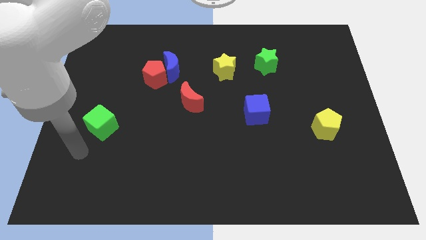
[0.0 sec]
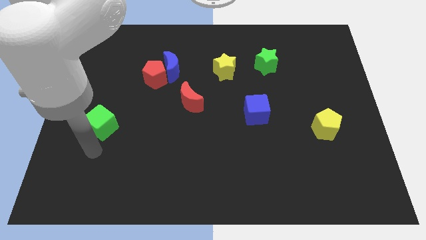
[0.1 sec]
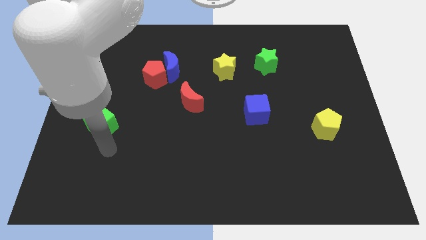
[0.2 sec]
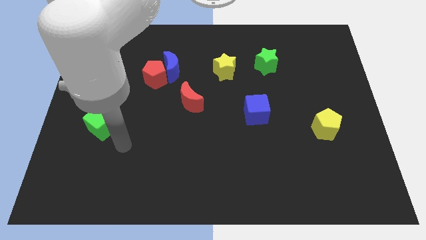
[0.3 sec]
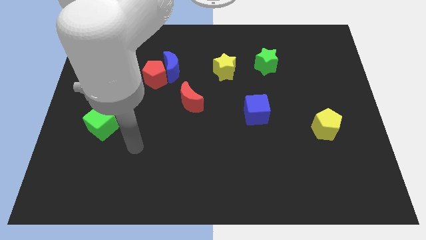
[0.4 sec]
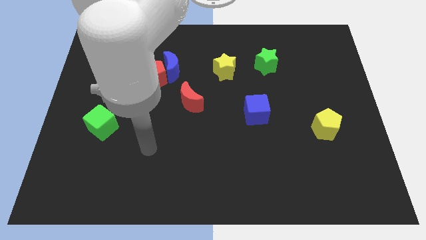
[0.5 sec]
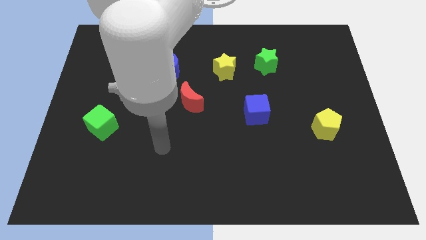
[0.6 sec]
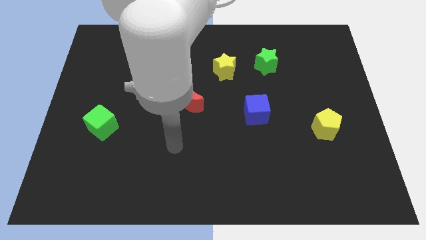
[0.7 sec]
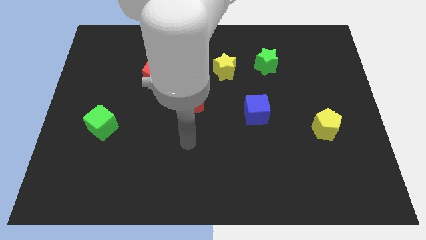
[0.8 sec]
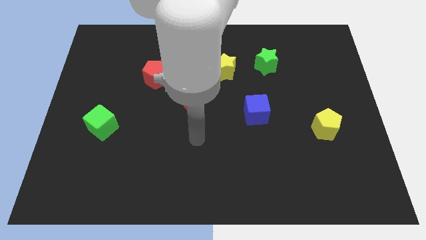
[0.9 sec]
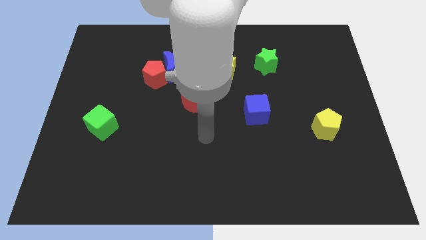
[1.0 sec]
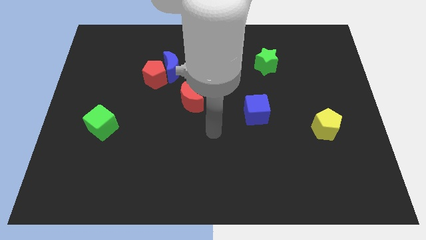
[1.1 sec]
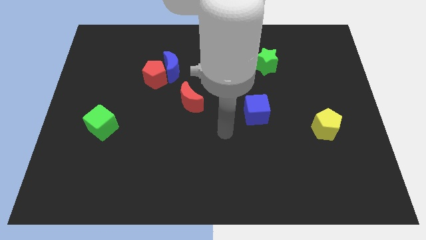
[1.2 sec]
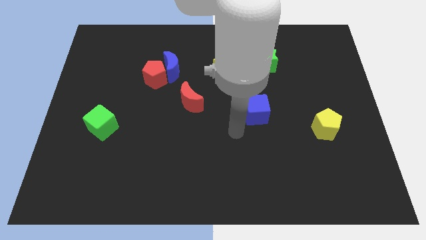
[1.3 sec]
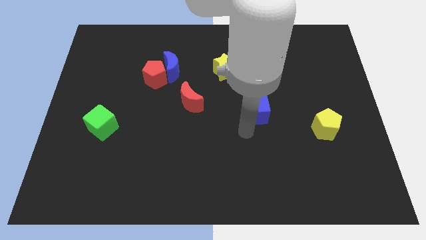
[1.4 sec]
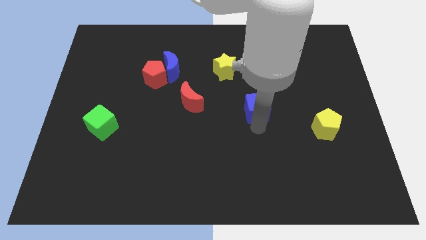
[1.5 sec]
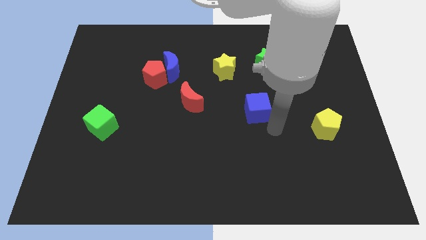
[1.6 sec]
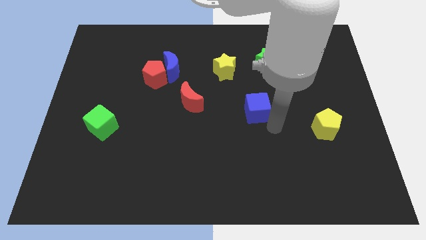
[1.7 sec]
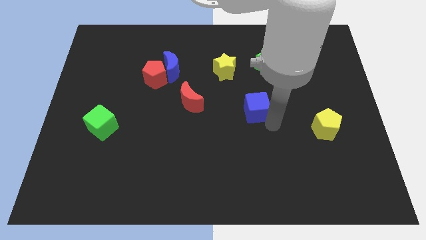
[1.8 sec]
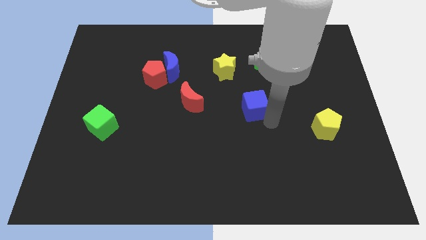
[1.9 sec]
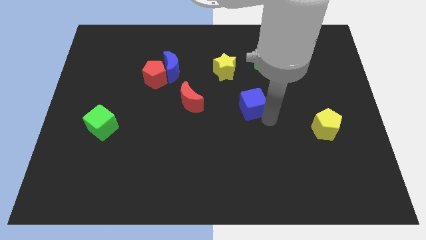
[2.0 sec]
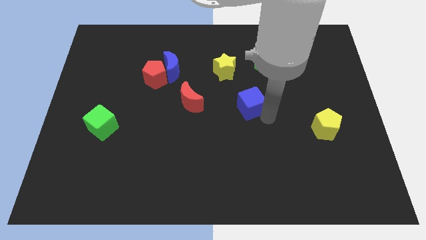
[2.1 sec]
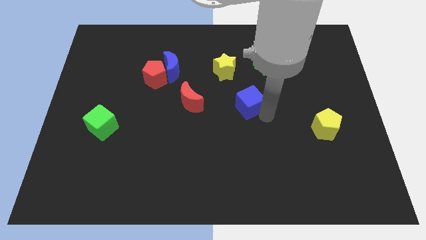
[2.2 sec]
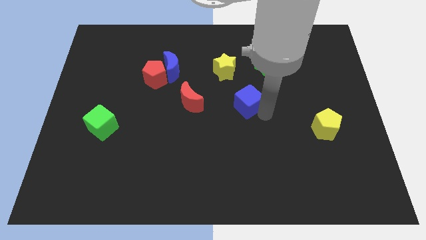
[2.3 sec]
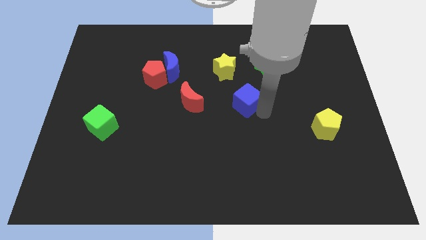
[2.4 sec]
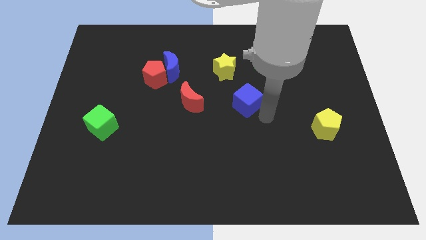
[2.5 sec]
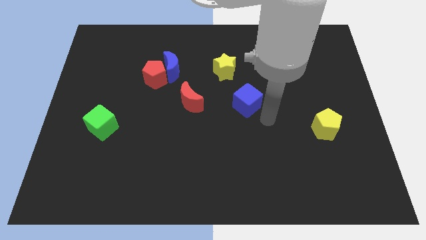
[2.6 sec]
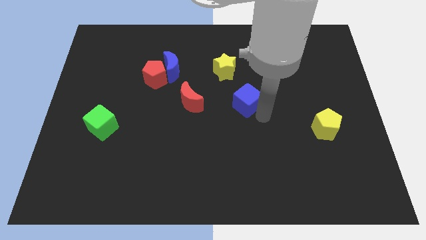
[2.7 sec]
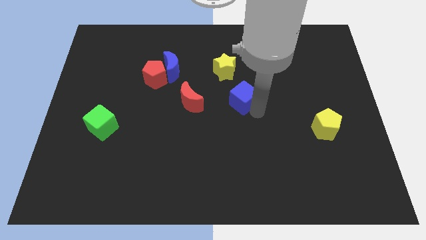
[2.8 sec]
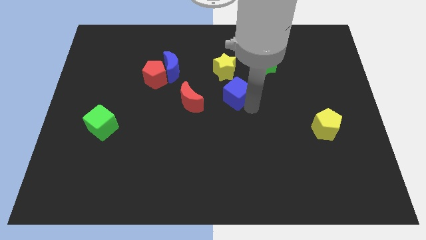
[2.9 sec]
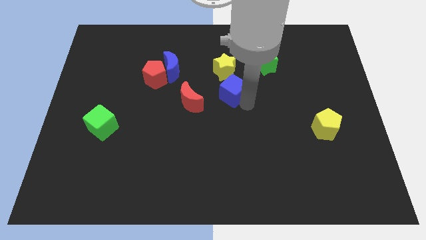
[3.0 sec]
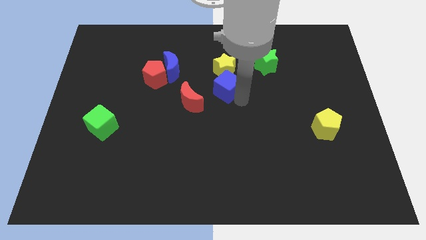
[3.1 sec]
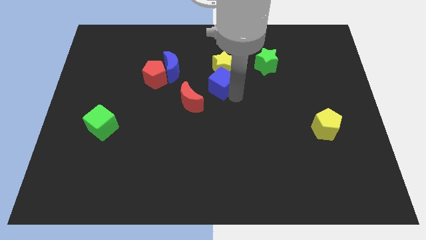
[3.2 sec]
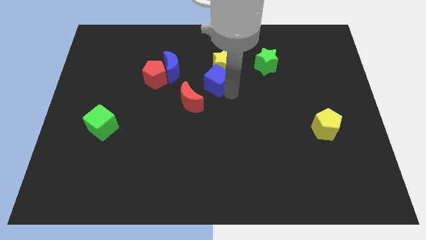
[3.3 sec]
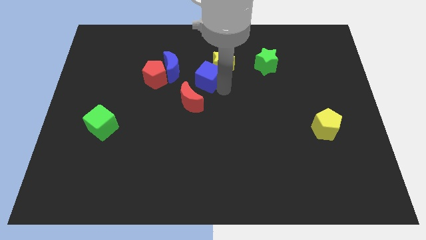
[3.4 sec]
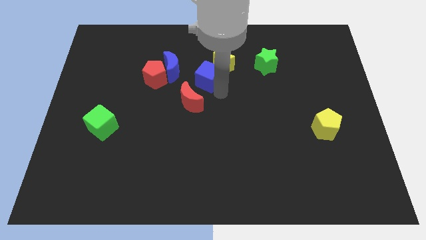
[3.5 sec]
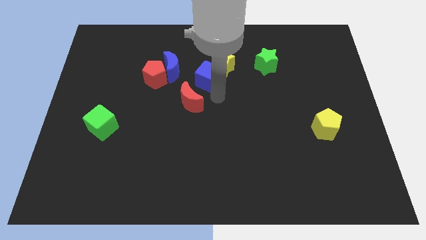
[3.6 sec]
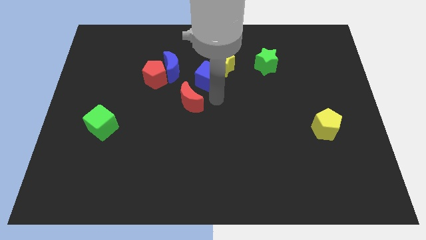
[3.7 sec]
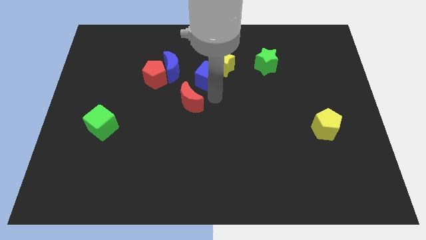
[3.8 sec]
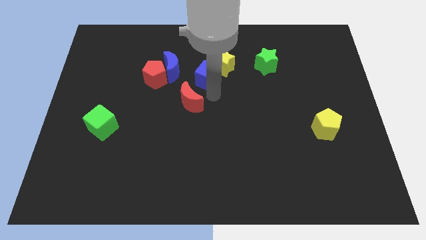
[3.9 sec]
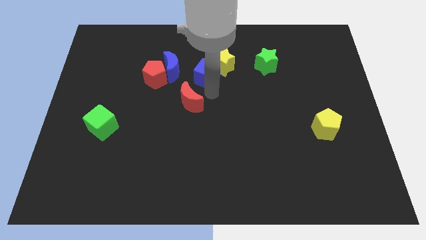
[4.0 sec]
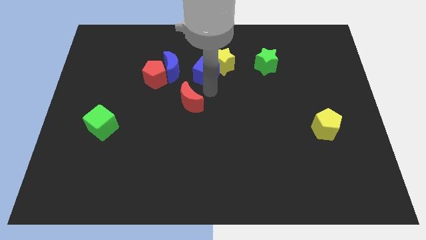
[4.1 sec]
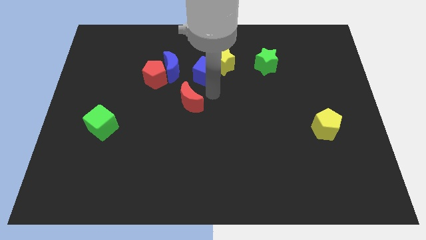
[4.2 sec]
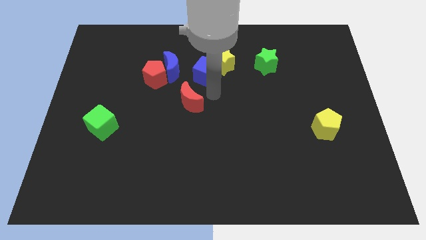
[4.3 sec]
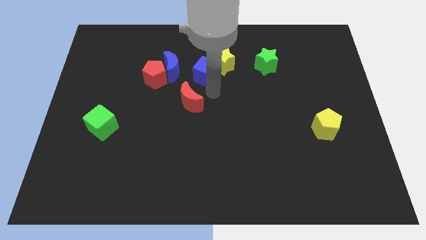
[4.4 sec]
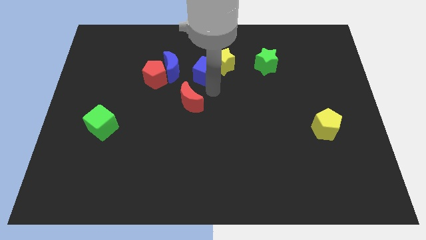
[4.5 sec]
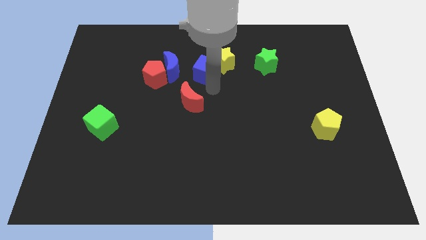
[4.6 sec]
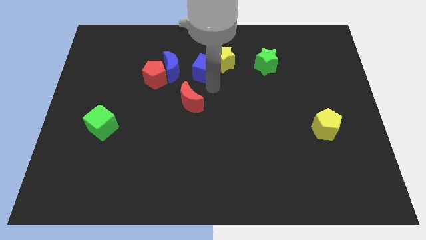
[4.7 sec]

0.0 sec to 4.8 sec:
put the blue cube to the left of the green star

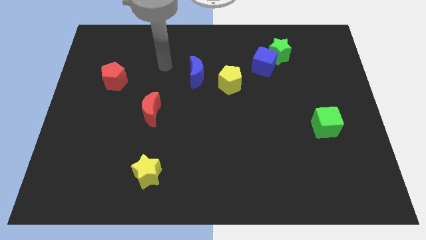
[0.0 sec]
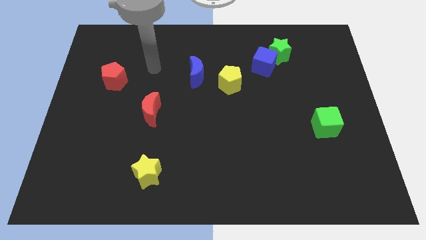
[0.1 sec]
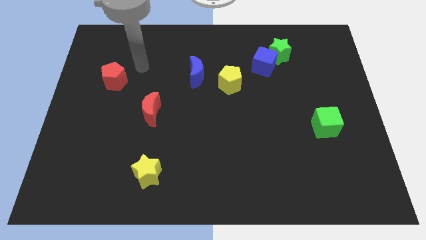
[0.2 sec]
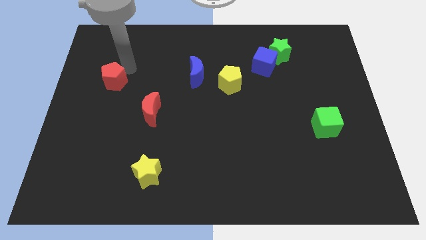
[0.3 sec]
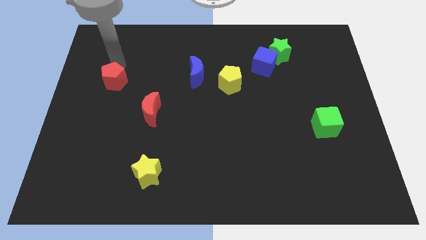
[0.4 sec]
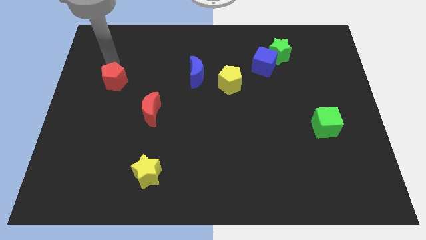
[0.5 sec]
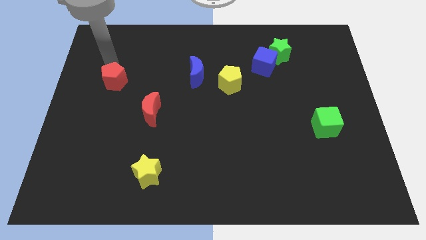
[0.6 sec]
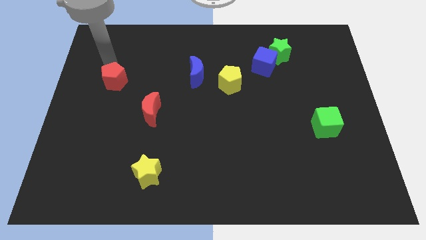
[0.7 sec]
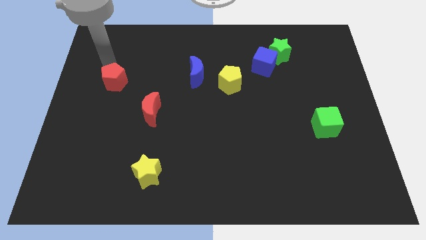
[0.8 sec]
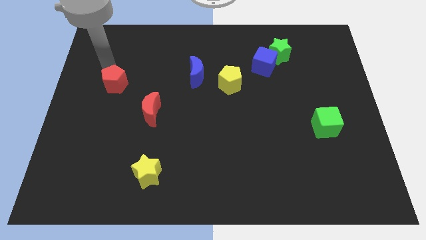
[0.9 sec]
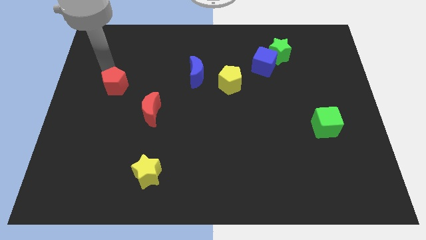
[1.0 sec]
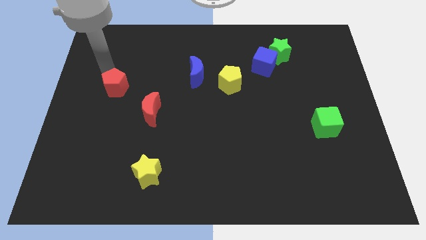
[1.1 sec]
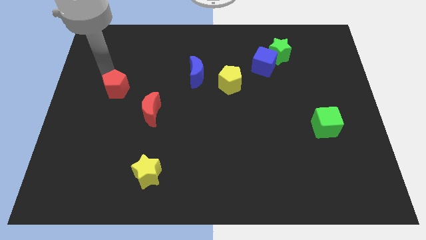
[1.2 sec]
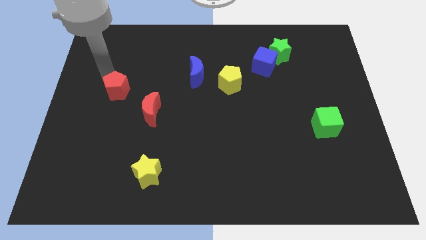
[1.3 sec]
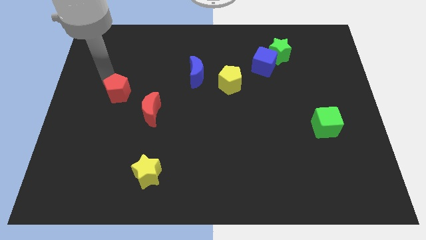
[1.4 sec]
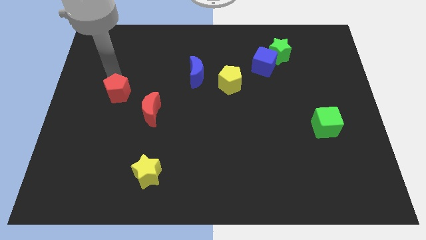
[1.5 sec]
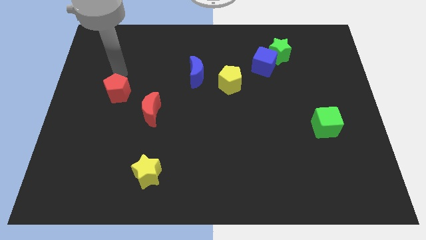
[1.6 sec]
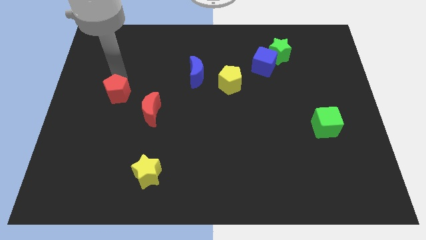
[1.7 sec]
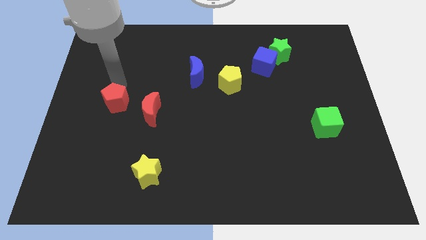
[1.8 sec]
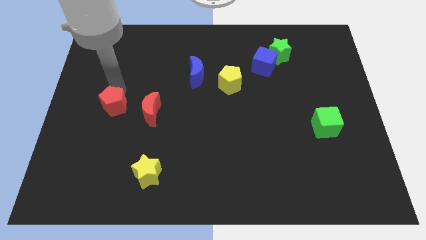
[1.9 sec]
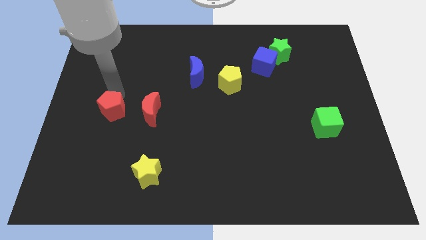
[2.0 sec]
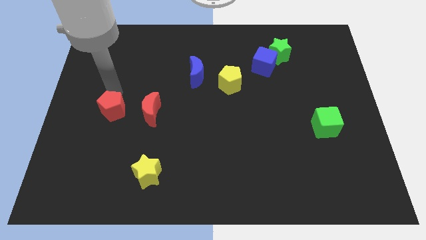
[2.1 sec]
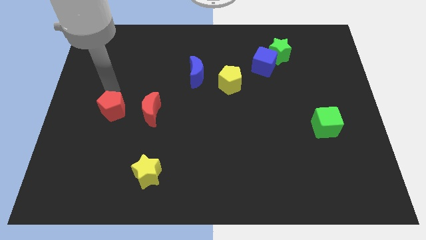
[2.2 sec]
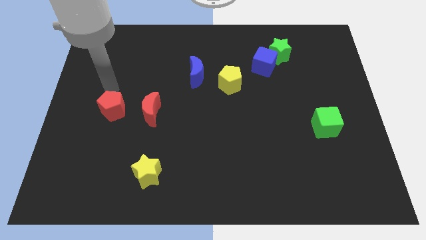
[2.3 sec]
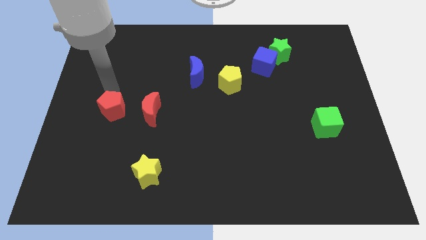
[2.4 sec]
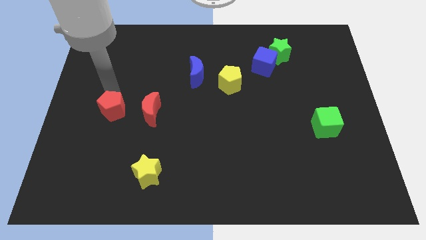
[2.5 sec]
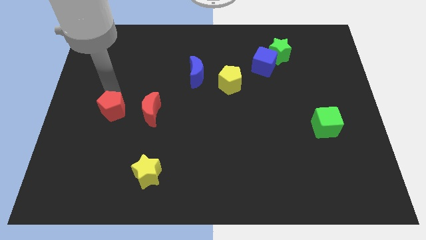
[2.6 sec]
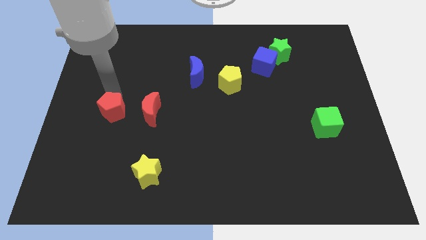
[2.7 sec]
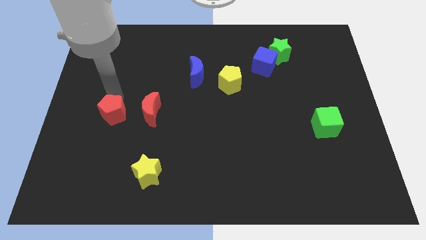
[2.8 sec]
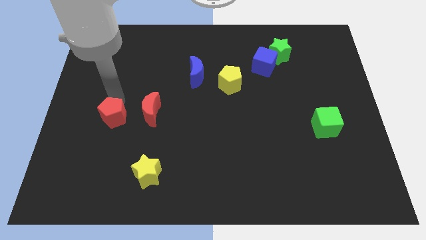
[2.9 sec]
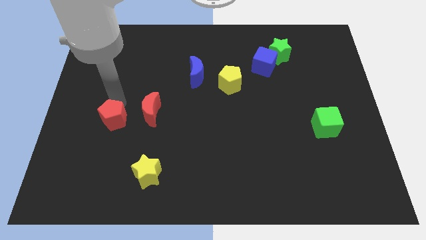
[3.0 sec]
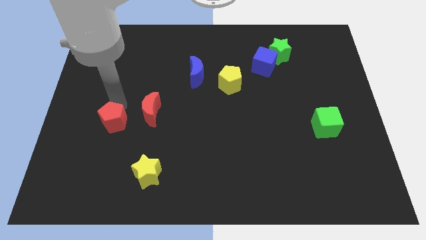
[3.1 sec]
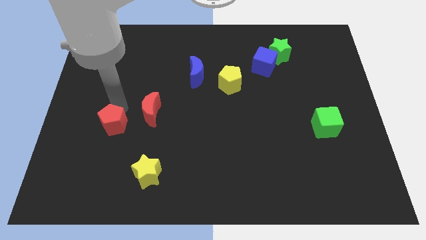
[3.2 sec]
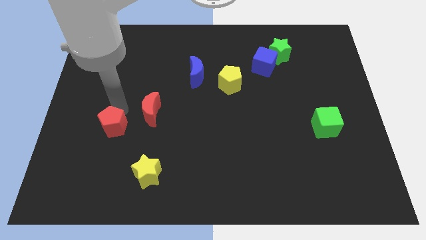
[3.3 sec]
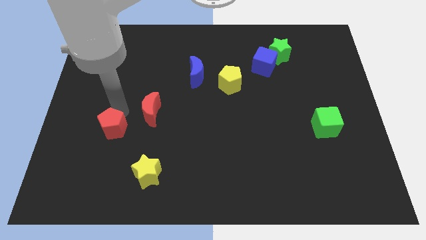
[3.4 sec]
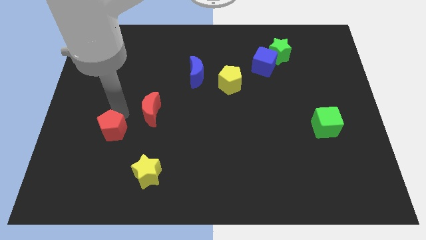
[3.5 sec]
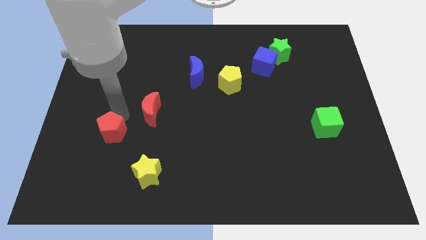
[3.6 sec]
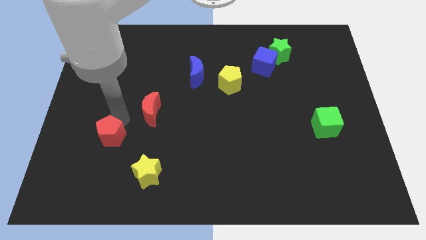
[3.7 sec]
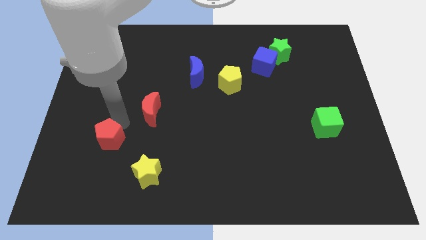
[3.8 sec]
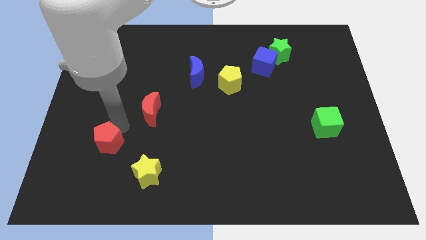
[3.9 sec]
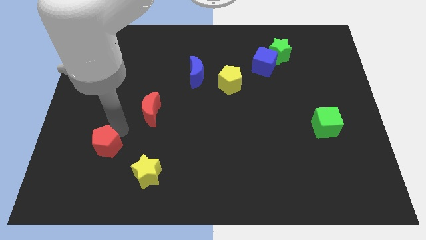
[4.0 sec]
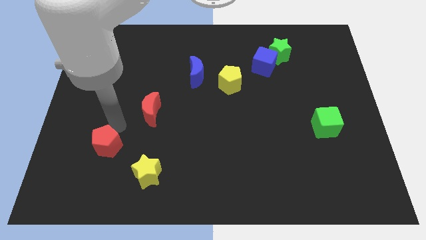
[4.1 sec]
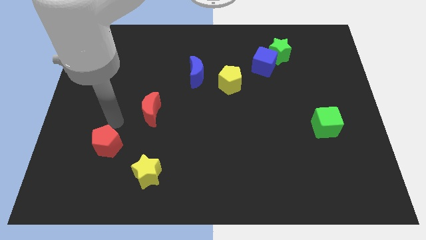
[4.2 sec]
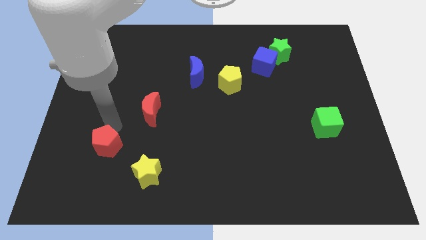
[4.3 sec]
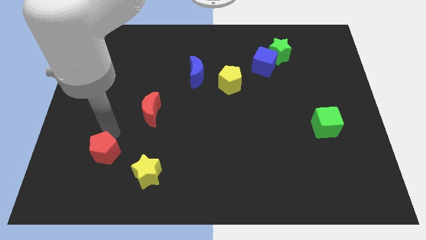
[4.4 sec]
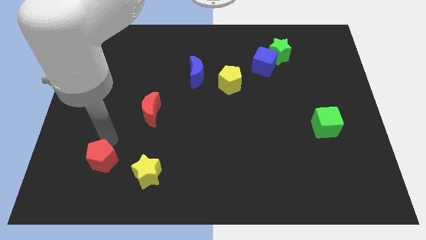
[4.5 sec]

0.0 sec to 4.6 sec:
move the red pentagon to the left side of the yellow star
